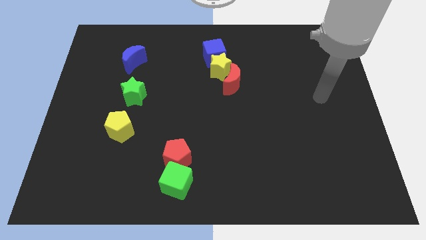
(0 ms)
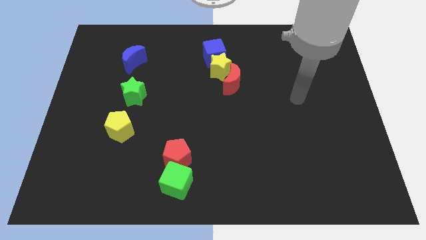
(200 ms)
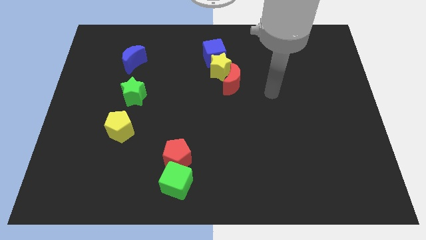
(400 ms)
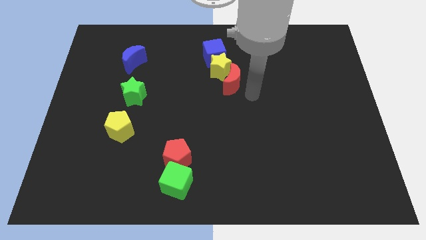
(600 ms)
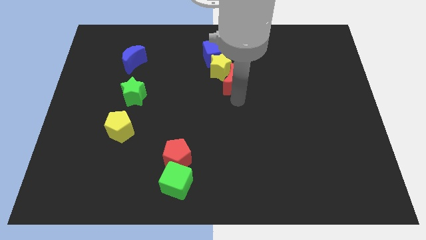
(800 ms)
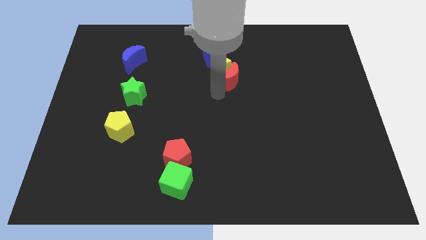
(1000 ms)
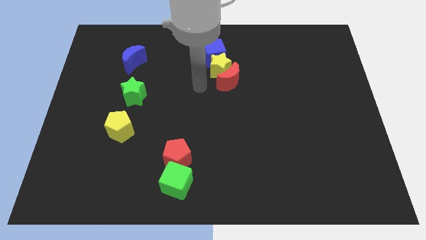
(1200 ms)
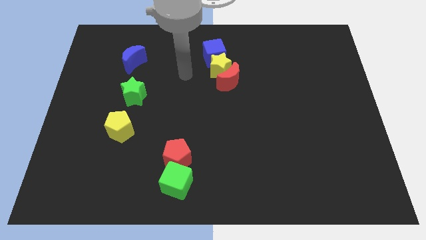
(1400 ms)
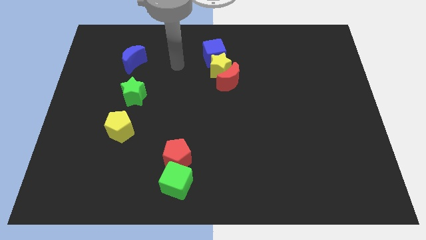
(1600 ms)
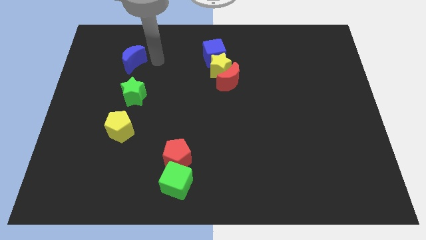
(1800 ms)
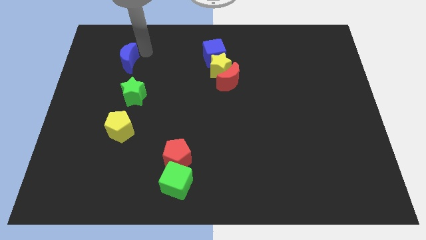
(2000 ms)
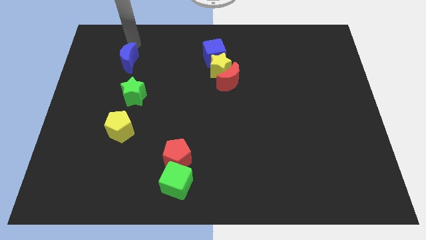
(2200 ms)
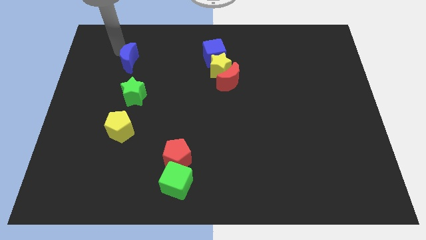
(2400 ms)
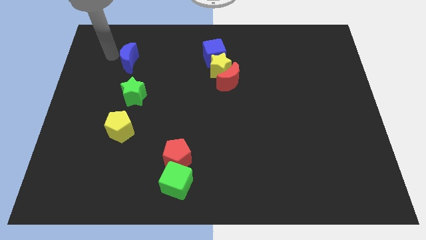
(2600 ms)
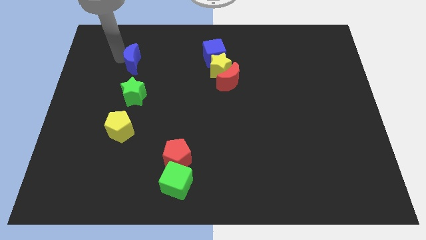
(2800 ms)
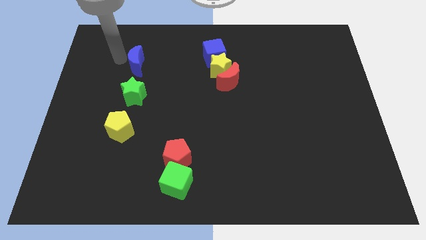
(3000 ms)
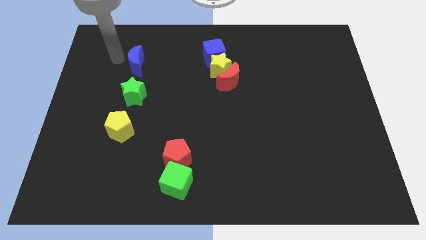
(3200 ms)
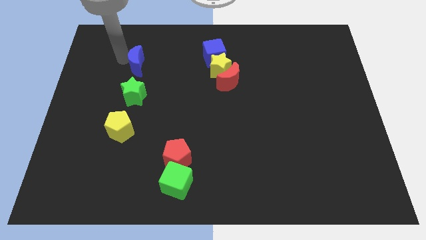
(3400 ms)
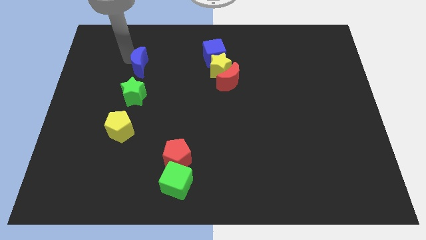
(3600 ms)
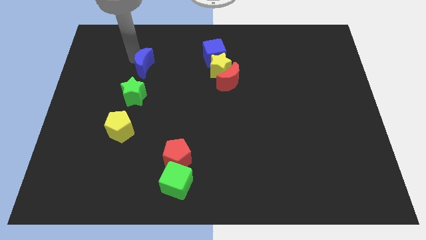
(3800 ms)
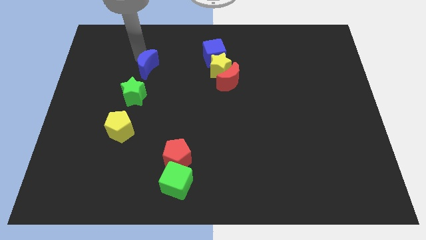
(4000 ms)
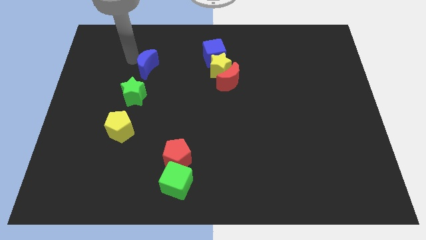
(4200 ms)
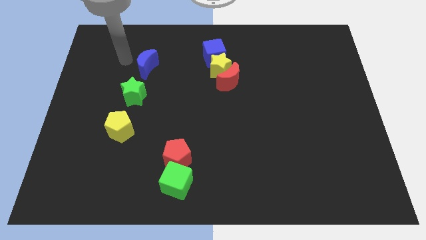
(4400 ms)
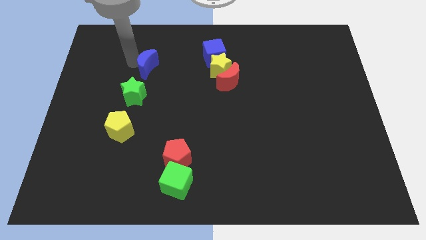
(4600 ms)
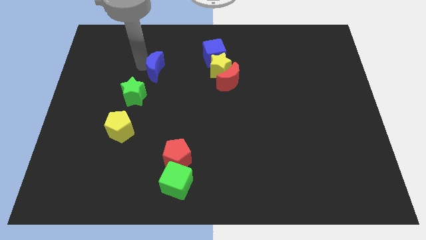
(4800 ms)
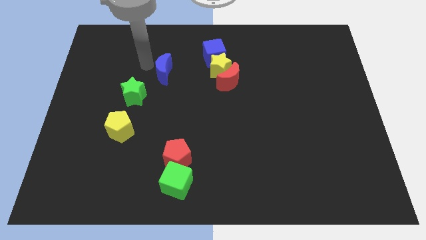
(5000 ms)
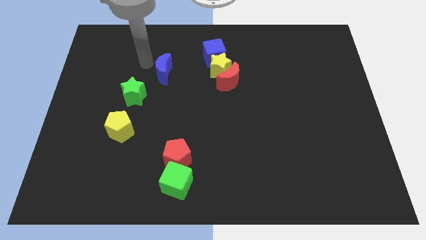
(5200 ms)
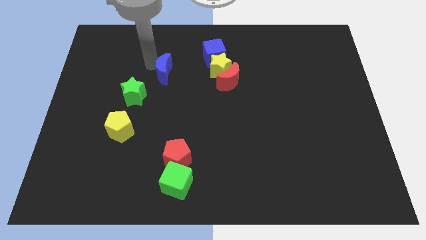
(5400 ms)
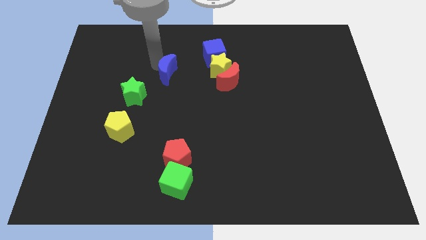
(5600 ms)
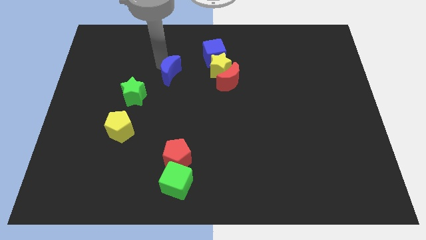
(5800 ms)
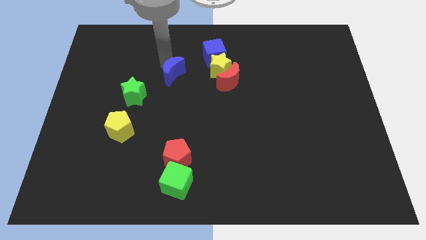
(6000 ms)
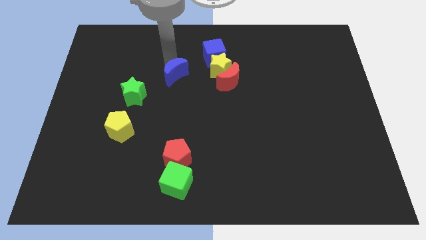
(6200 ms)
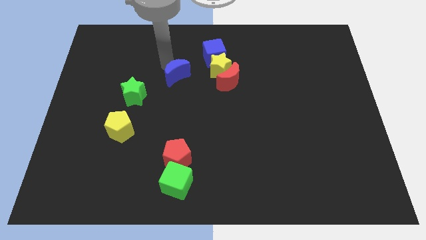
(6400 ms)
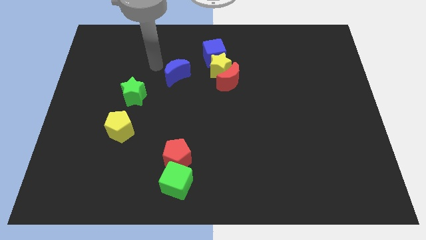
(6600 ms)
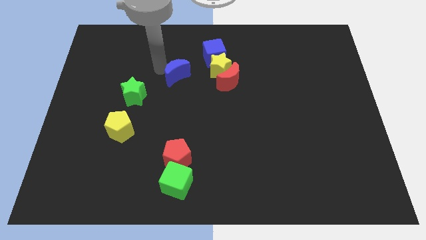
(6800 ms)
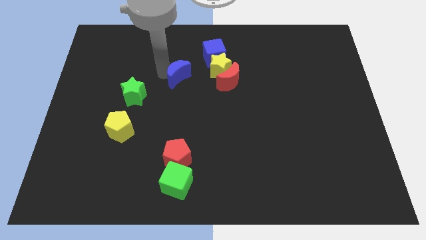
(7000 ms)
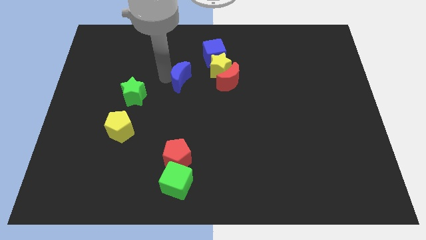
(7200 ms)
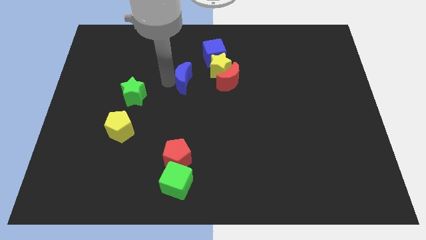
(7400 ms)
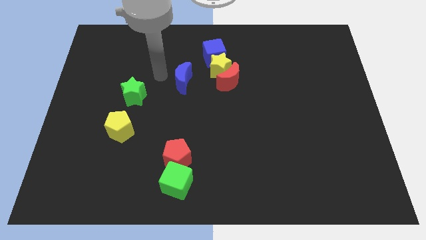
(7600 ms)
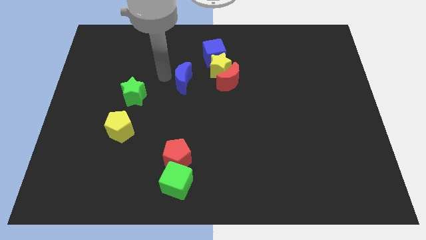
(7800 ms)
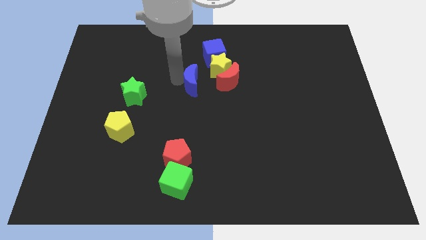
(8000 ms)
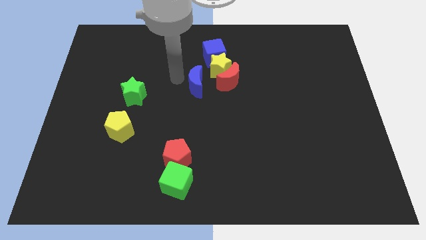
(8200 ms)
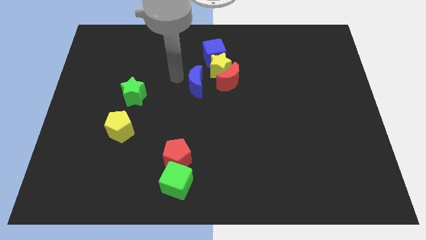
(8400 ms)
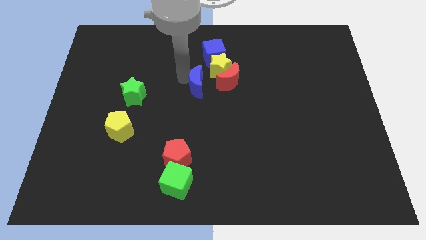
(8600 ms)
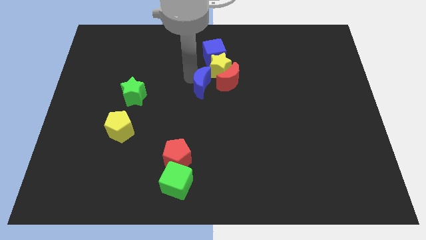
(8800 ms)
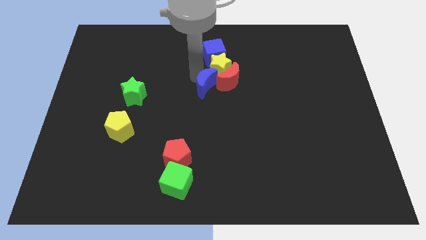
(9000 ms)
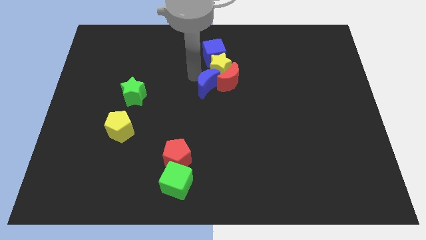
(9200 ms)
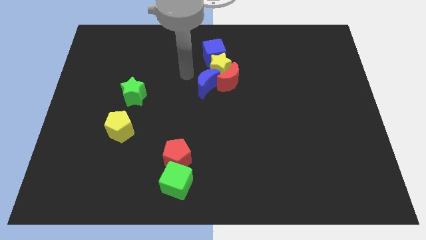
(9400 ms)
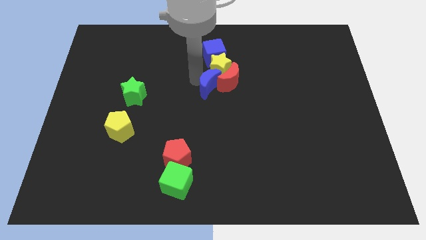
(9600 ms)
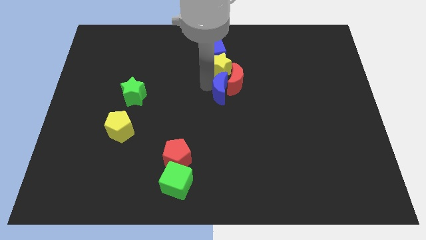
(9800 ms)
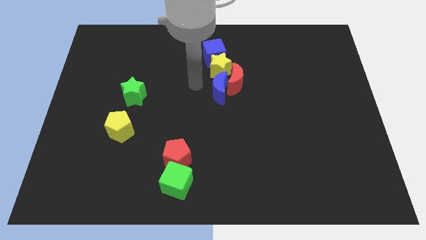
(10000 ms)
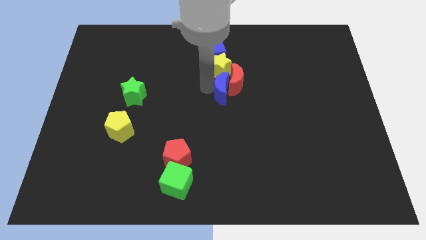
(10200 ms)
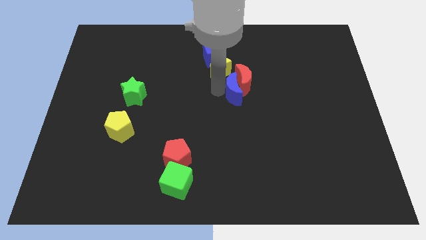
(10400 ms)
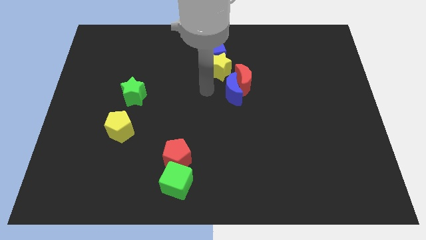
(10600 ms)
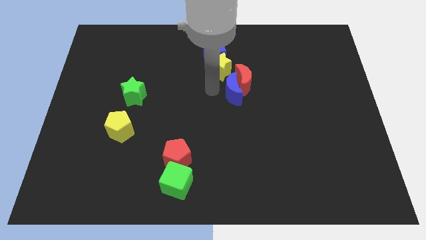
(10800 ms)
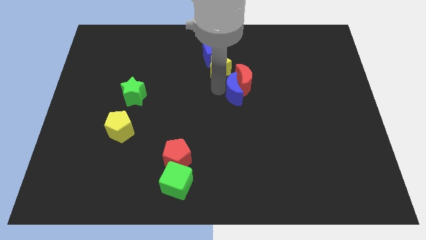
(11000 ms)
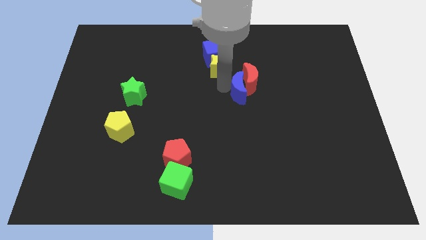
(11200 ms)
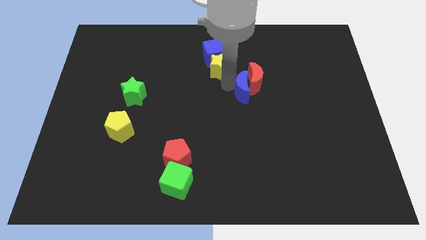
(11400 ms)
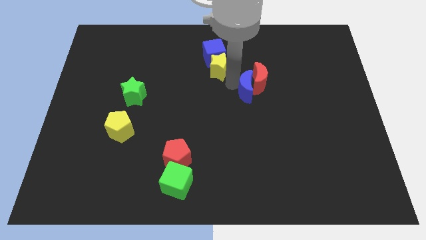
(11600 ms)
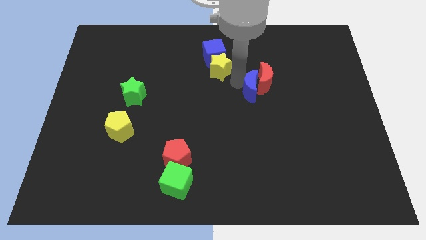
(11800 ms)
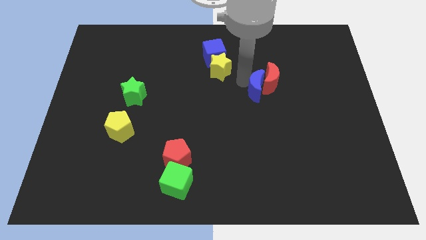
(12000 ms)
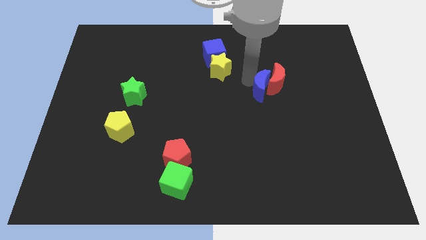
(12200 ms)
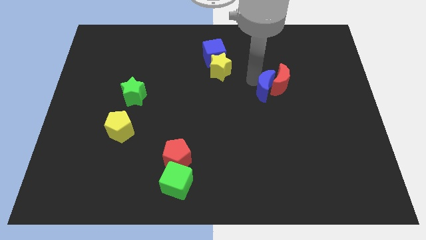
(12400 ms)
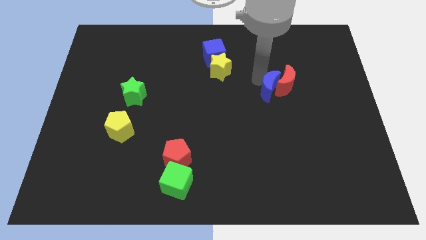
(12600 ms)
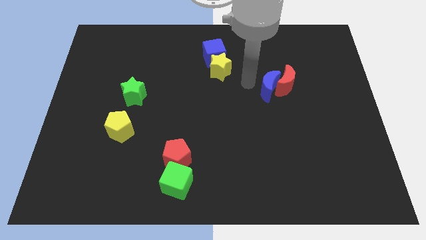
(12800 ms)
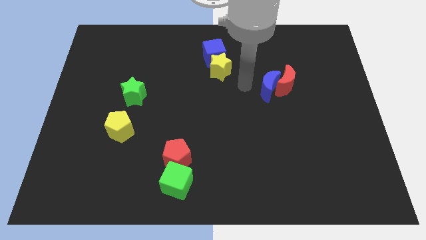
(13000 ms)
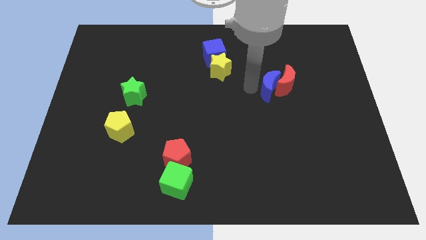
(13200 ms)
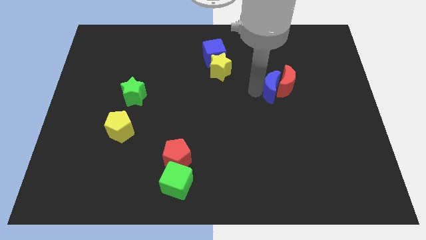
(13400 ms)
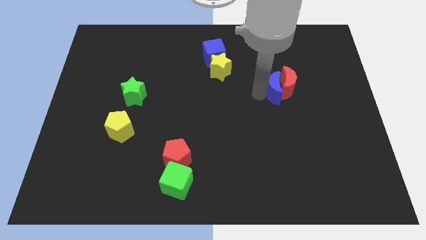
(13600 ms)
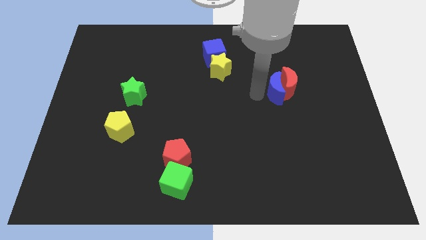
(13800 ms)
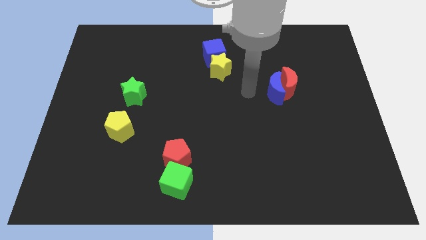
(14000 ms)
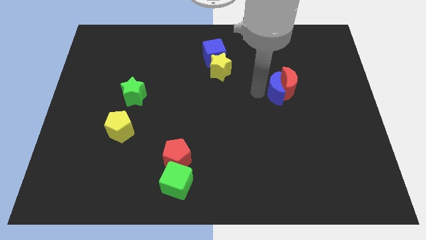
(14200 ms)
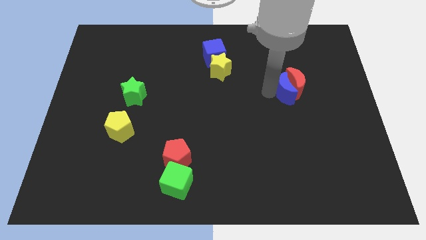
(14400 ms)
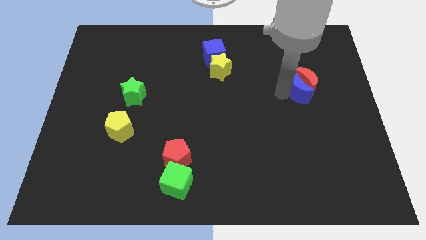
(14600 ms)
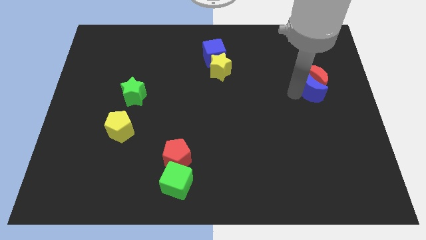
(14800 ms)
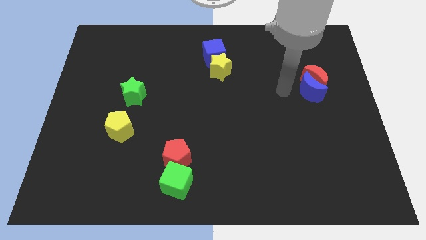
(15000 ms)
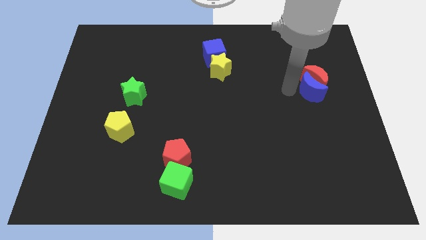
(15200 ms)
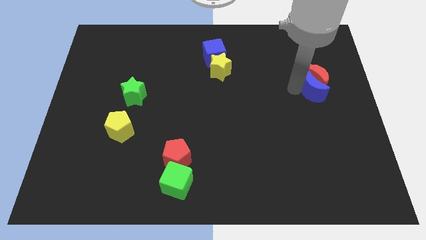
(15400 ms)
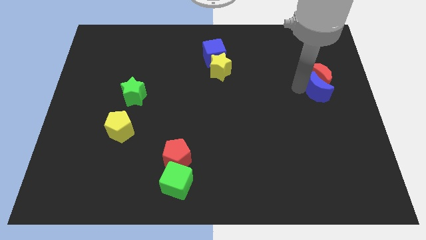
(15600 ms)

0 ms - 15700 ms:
slide the blue moon to the right side of the board
